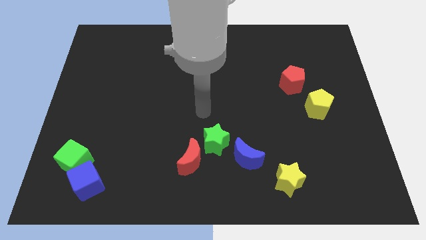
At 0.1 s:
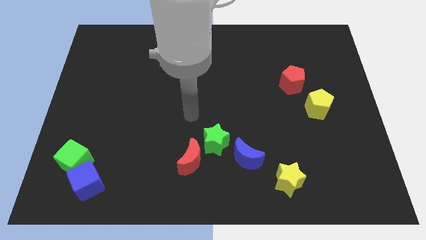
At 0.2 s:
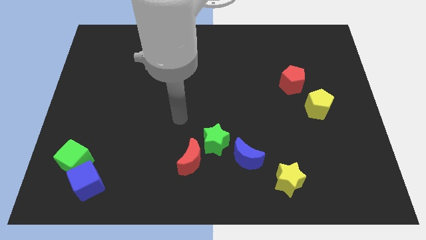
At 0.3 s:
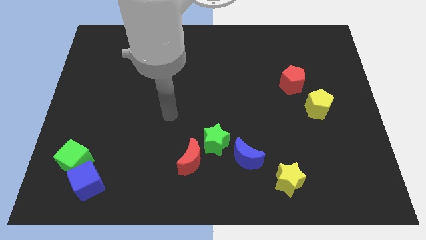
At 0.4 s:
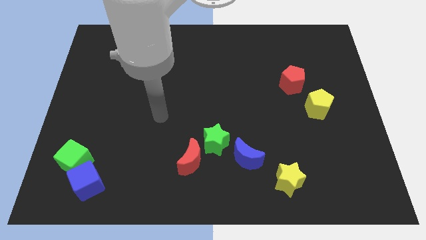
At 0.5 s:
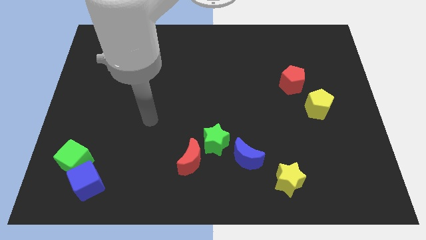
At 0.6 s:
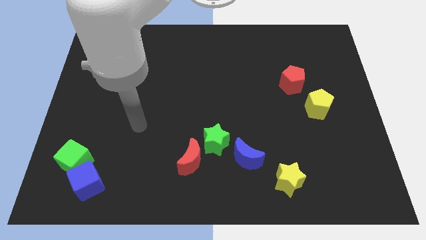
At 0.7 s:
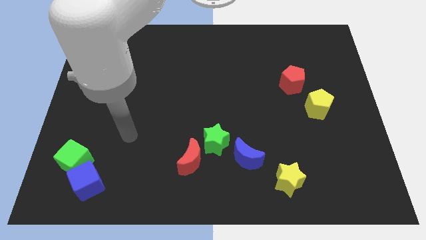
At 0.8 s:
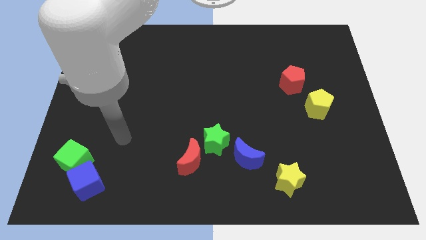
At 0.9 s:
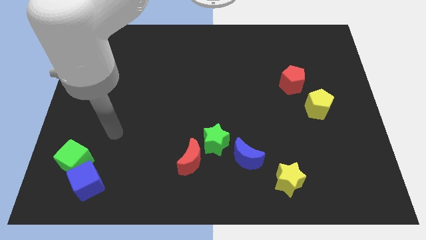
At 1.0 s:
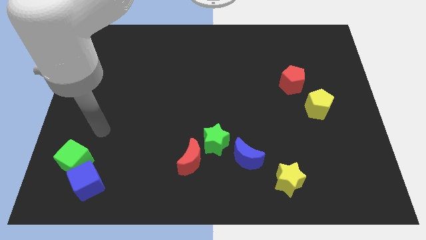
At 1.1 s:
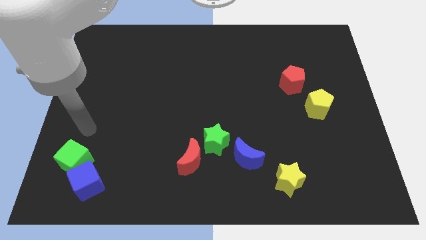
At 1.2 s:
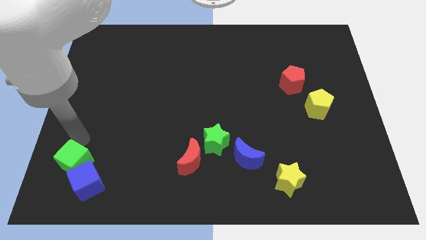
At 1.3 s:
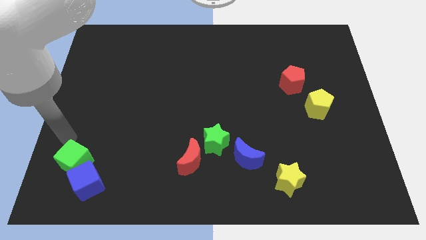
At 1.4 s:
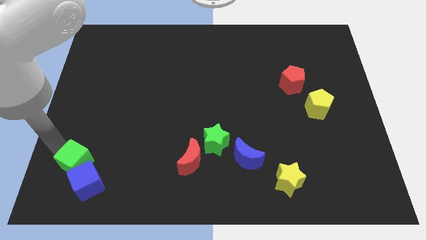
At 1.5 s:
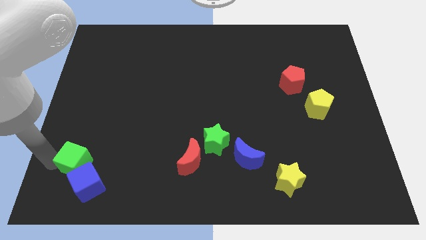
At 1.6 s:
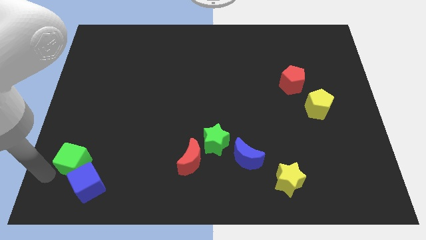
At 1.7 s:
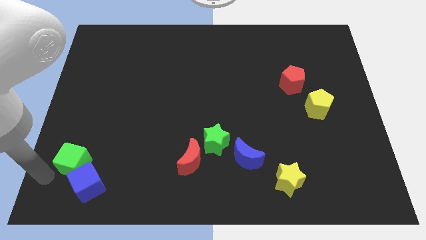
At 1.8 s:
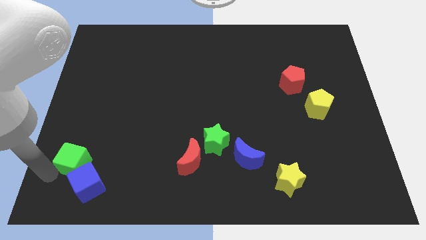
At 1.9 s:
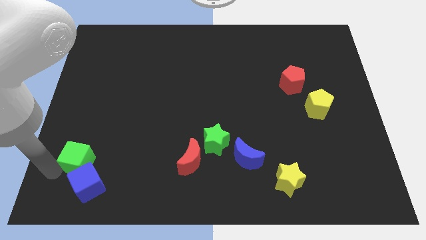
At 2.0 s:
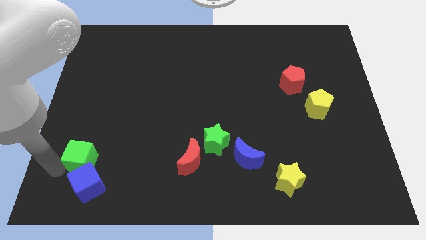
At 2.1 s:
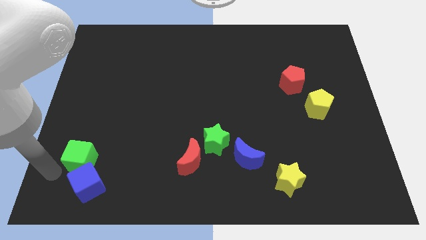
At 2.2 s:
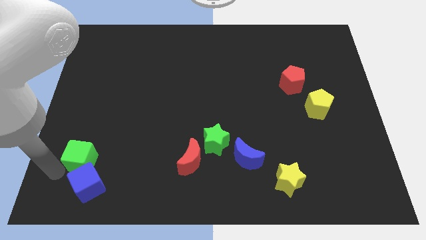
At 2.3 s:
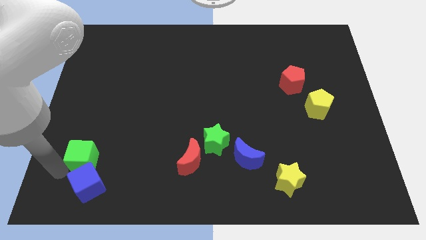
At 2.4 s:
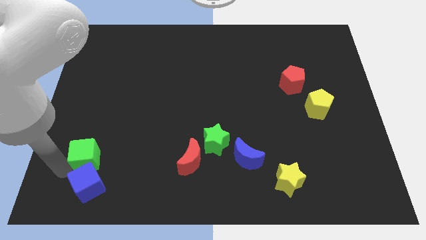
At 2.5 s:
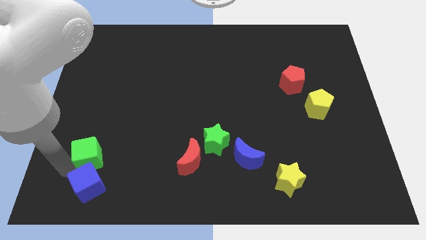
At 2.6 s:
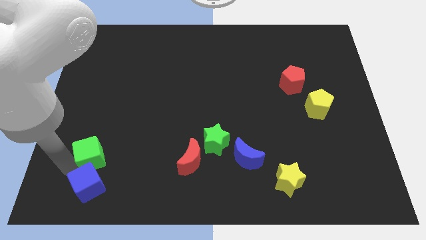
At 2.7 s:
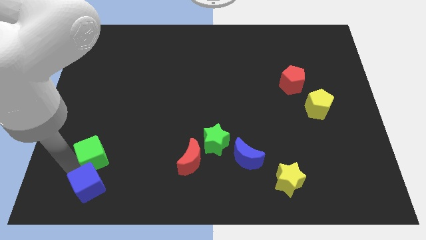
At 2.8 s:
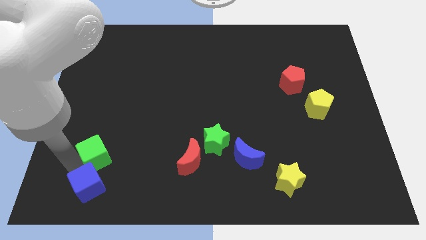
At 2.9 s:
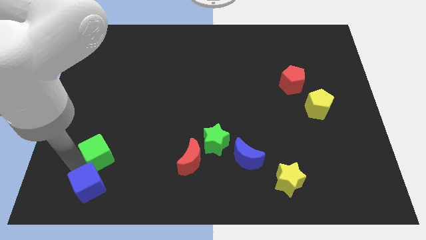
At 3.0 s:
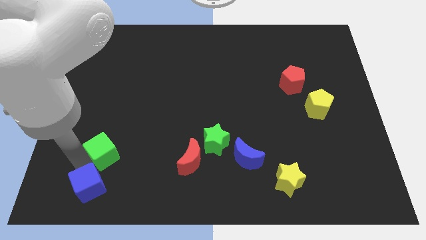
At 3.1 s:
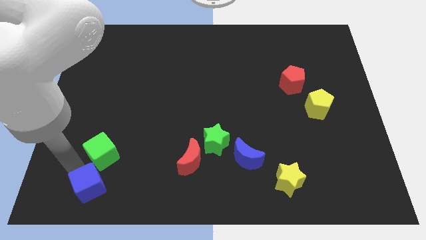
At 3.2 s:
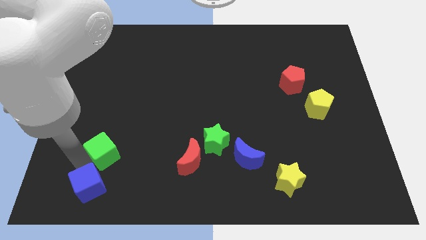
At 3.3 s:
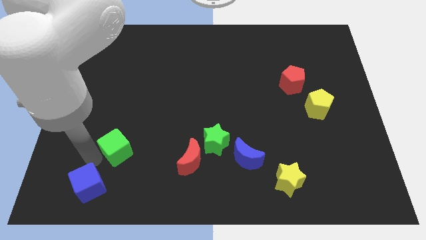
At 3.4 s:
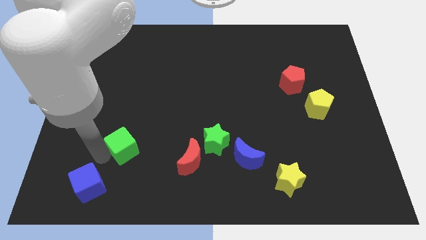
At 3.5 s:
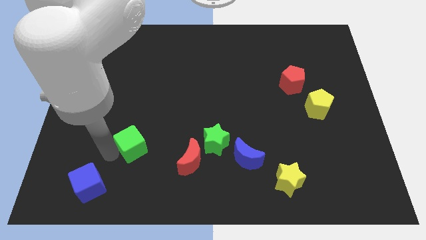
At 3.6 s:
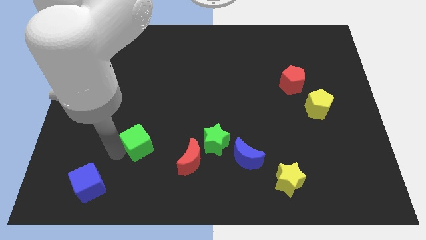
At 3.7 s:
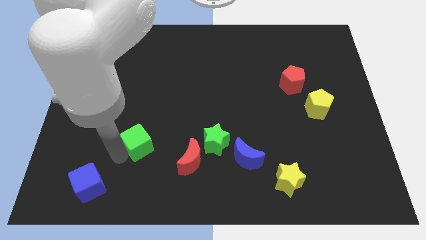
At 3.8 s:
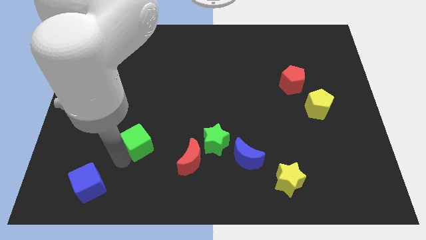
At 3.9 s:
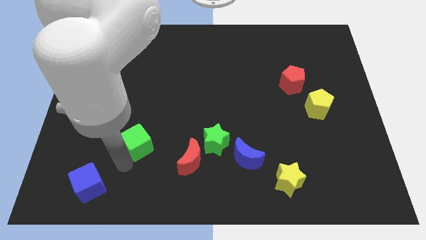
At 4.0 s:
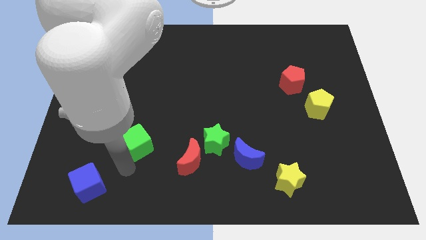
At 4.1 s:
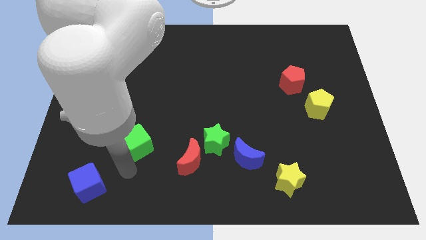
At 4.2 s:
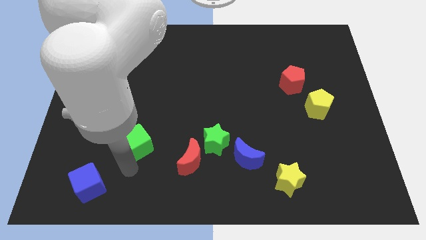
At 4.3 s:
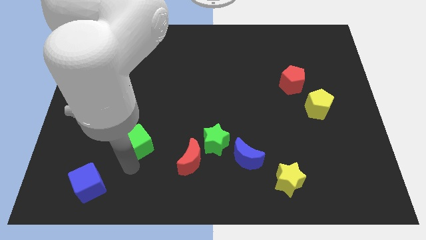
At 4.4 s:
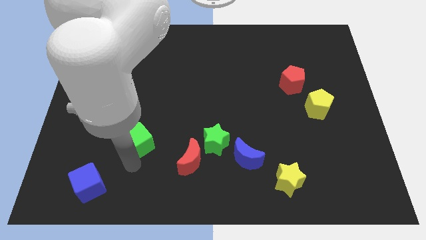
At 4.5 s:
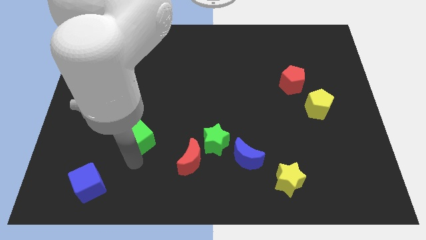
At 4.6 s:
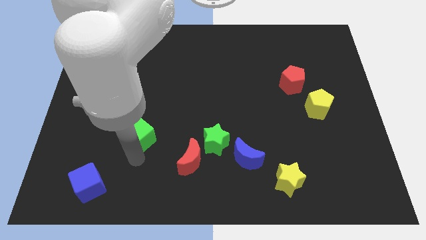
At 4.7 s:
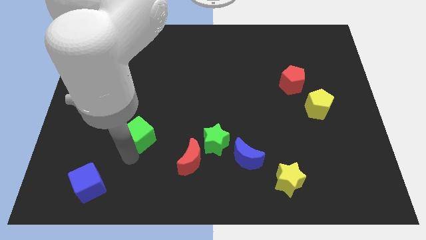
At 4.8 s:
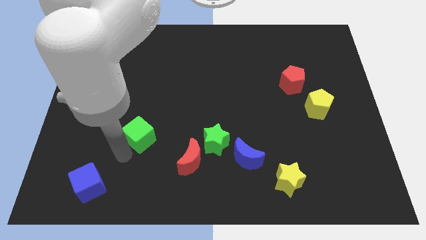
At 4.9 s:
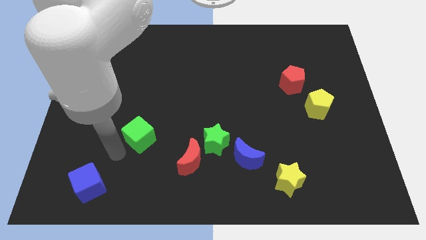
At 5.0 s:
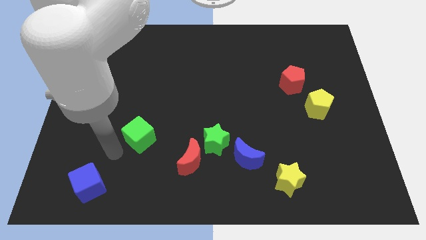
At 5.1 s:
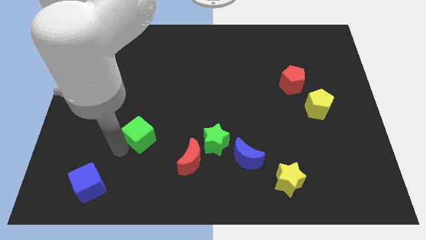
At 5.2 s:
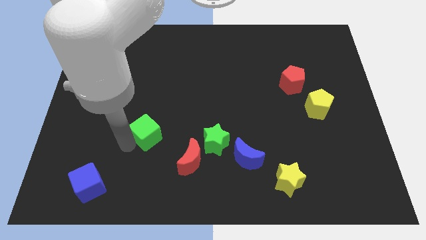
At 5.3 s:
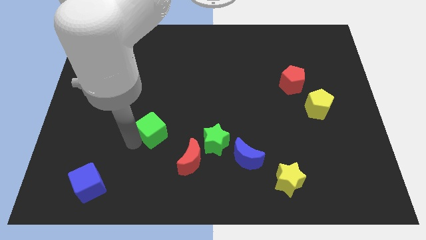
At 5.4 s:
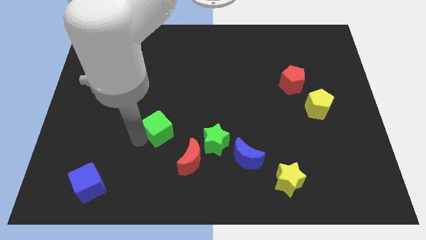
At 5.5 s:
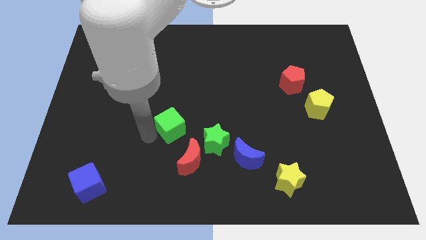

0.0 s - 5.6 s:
put the green cube to the center

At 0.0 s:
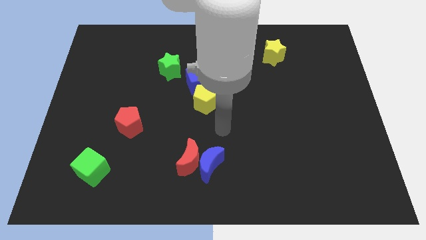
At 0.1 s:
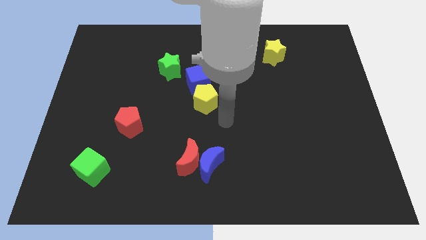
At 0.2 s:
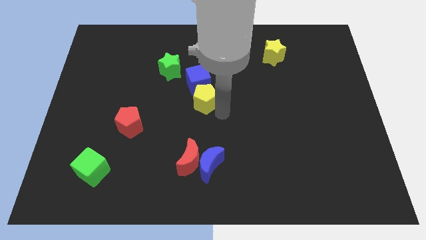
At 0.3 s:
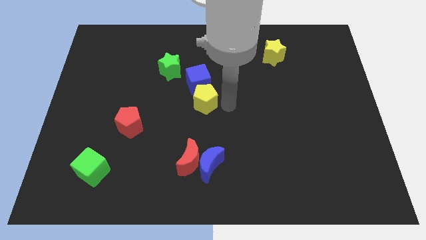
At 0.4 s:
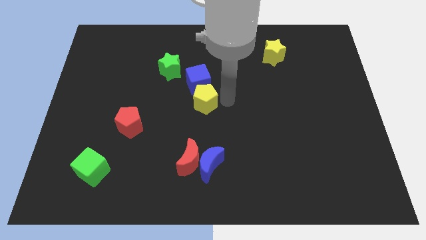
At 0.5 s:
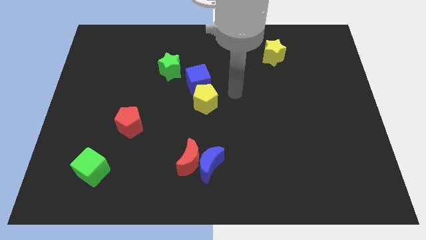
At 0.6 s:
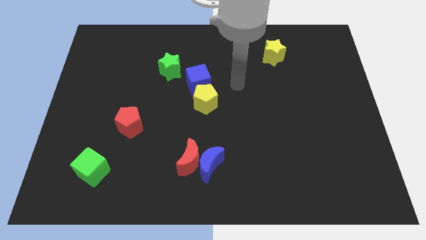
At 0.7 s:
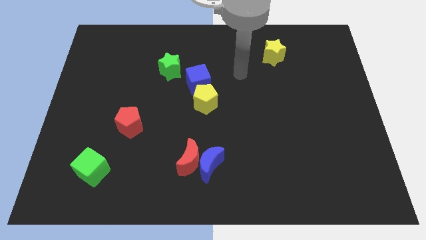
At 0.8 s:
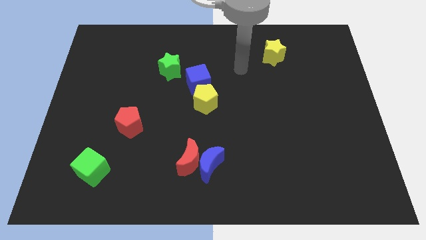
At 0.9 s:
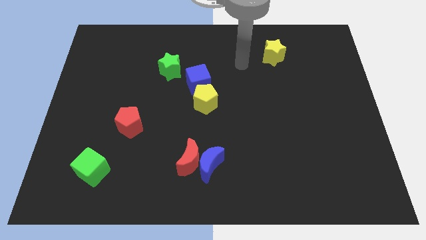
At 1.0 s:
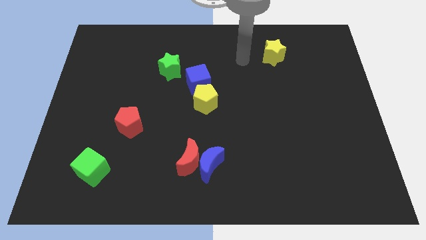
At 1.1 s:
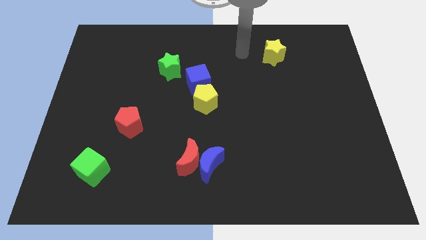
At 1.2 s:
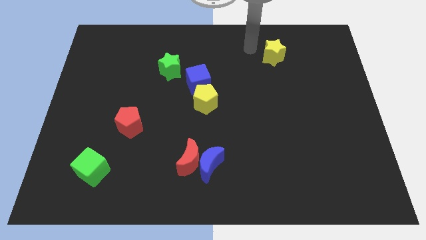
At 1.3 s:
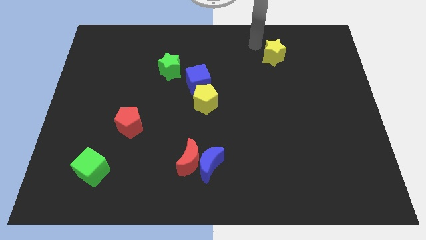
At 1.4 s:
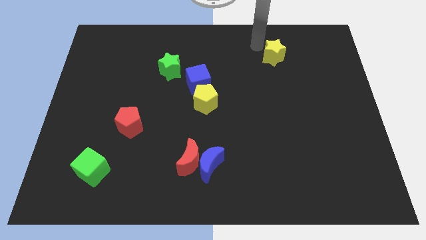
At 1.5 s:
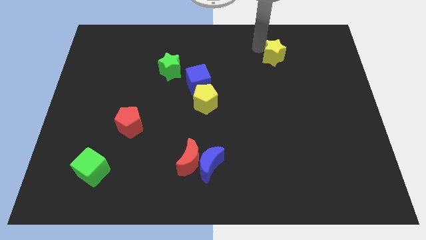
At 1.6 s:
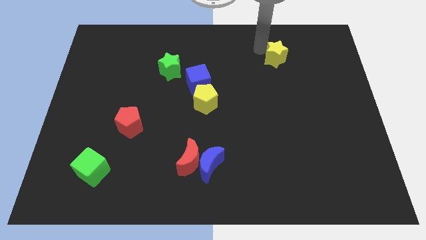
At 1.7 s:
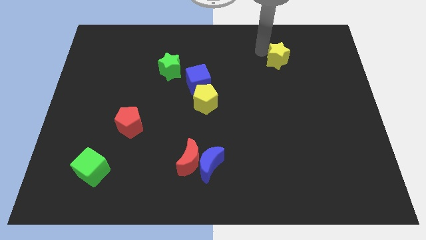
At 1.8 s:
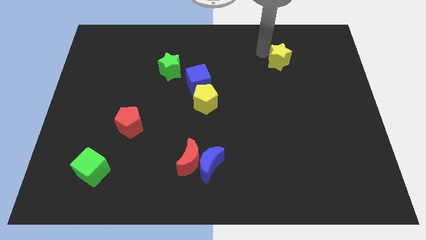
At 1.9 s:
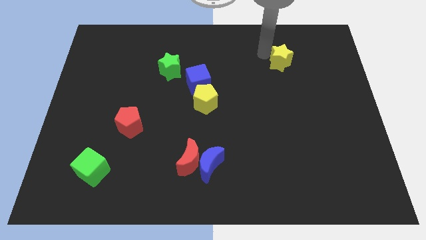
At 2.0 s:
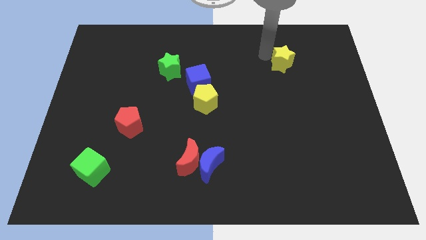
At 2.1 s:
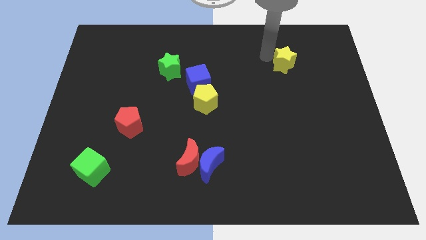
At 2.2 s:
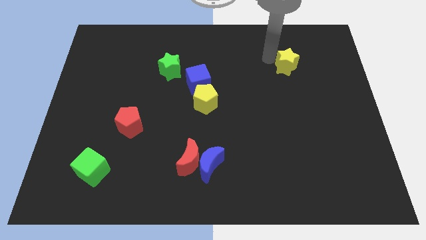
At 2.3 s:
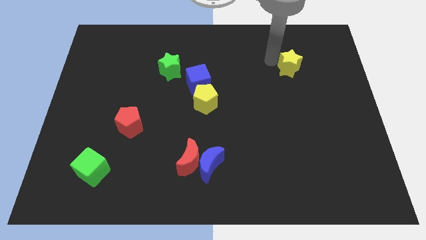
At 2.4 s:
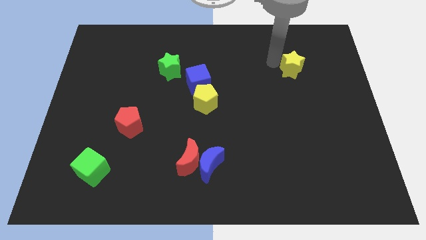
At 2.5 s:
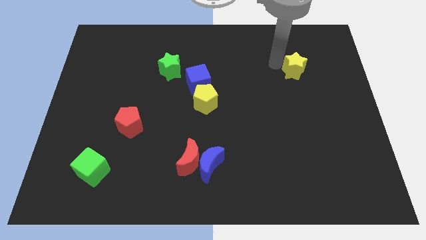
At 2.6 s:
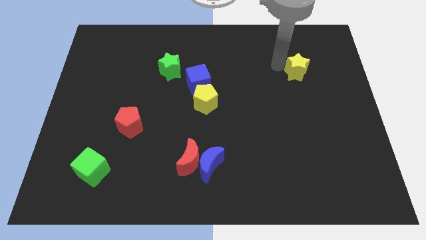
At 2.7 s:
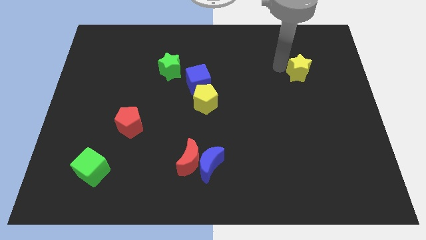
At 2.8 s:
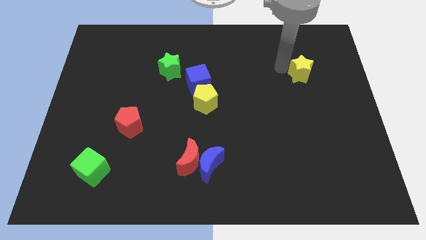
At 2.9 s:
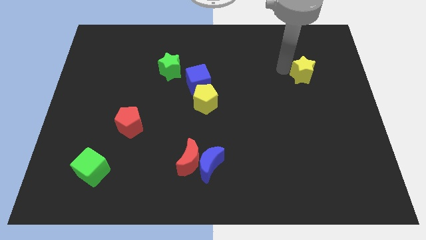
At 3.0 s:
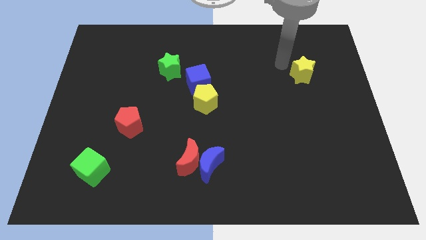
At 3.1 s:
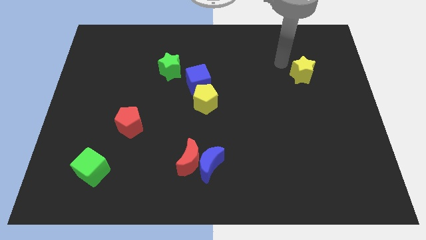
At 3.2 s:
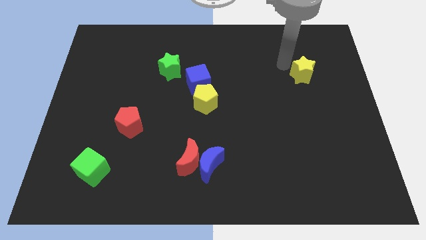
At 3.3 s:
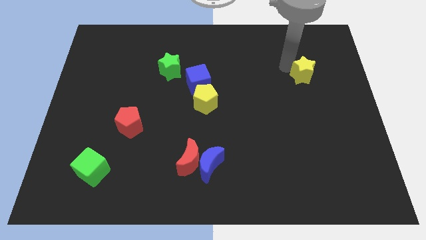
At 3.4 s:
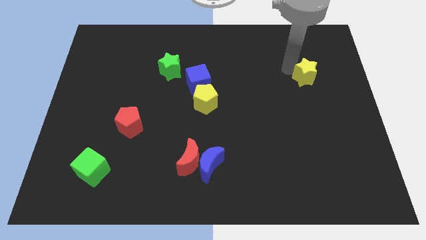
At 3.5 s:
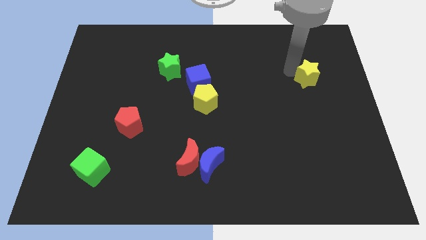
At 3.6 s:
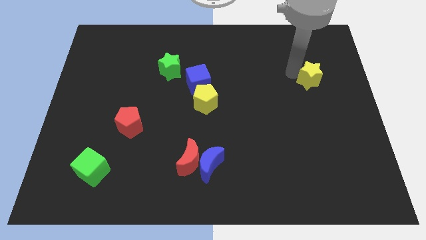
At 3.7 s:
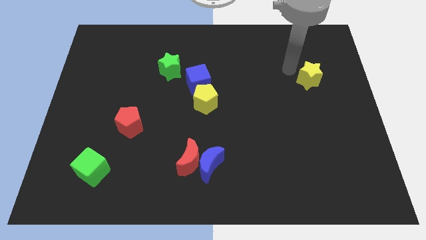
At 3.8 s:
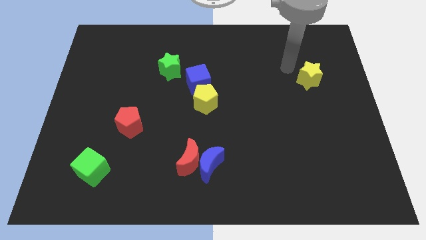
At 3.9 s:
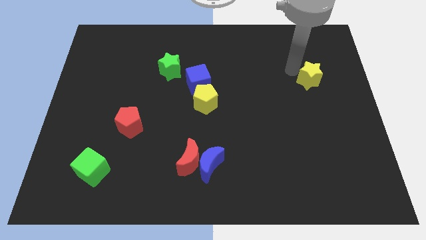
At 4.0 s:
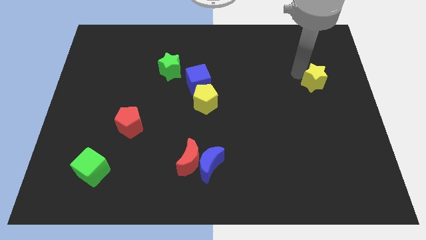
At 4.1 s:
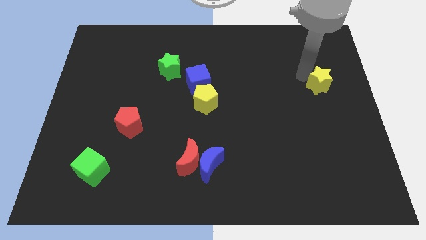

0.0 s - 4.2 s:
slide the yellow star to the center right
